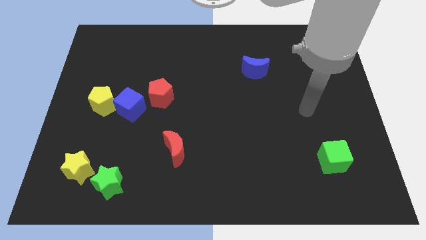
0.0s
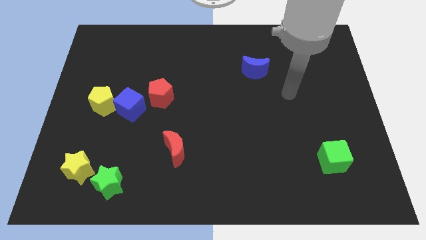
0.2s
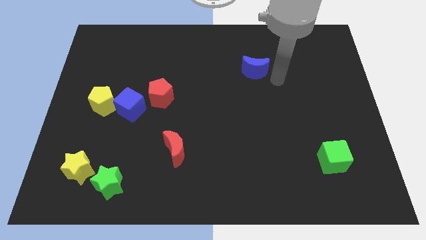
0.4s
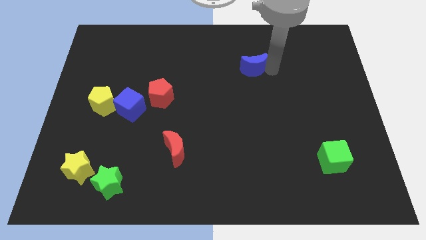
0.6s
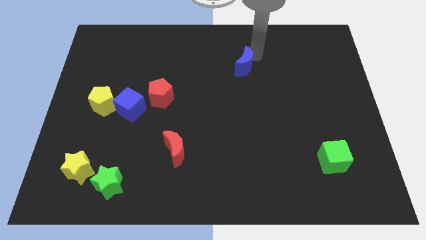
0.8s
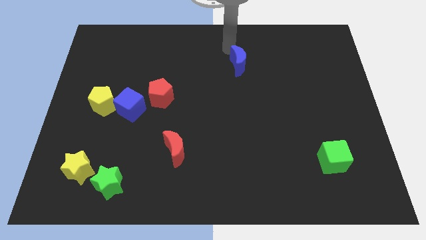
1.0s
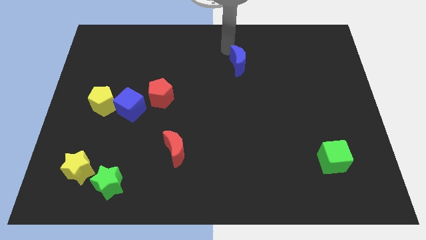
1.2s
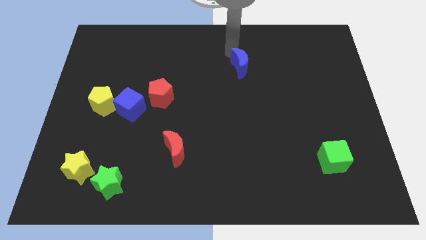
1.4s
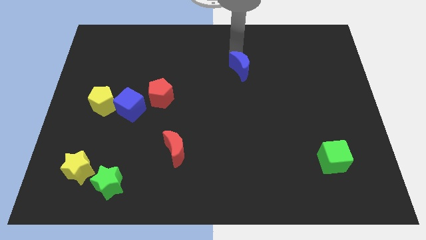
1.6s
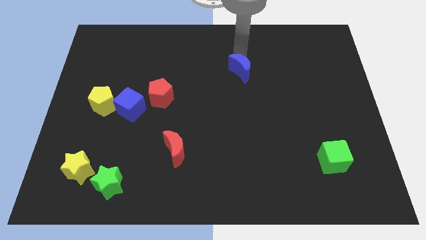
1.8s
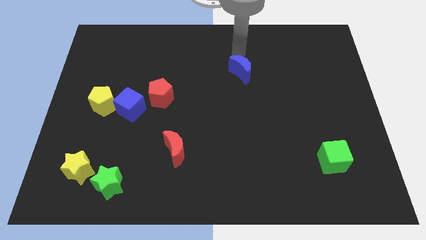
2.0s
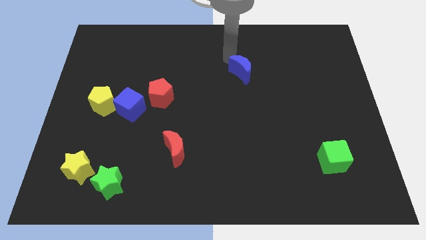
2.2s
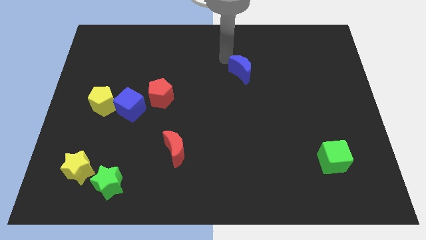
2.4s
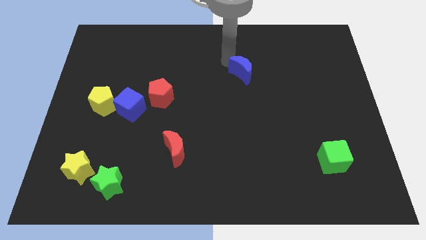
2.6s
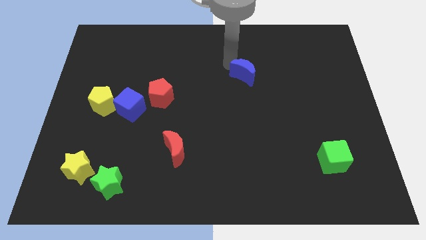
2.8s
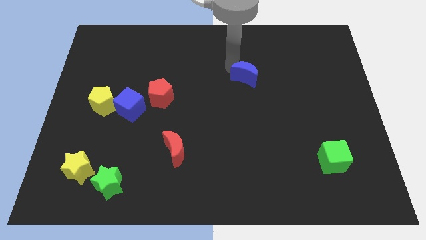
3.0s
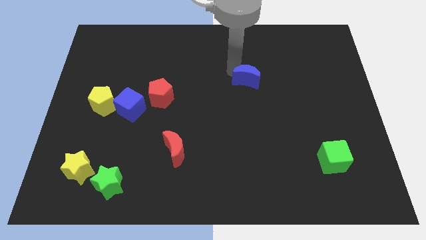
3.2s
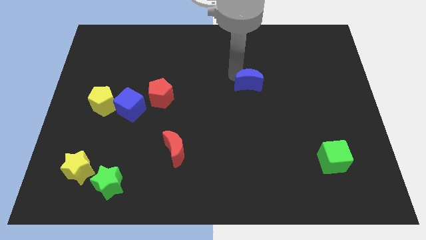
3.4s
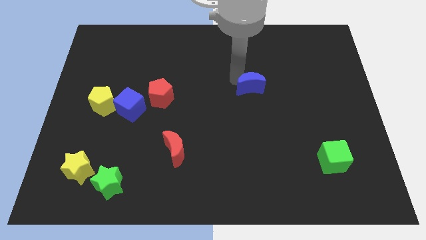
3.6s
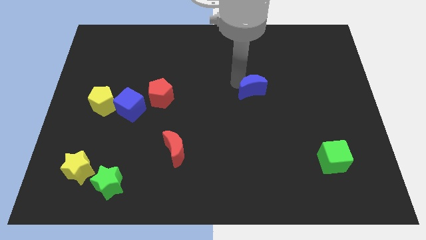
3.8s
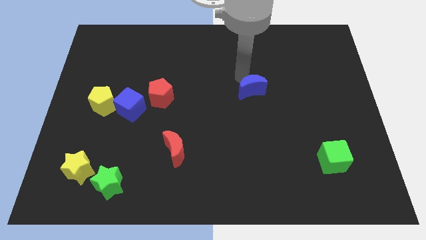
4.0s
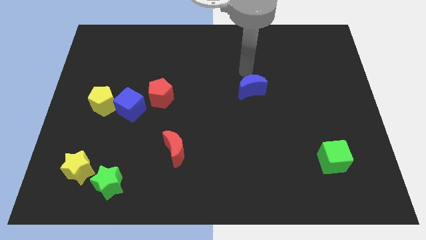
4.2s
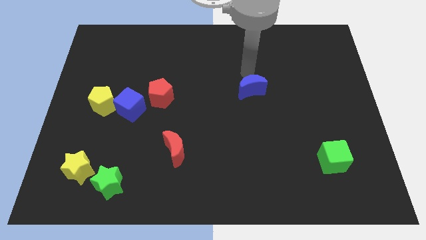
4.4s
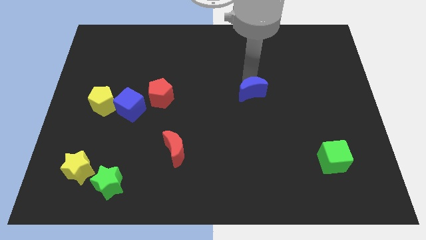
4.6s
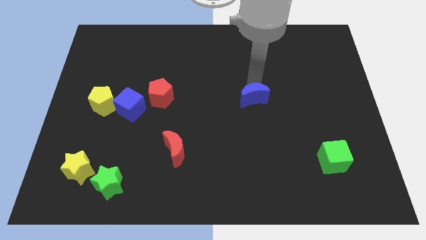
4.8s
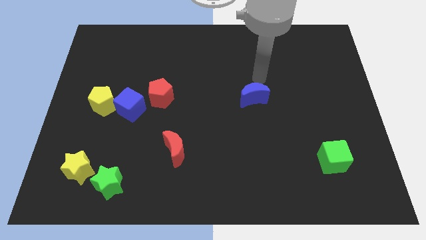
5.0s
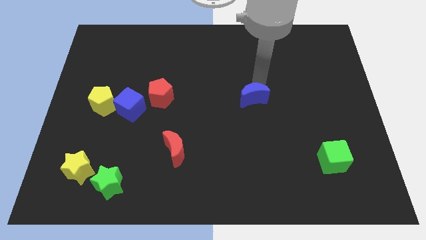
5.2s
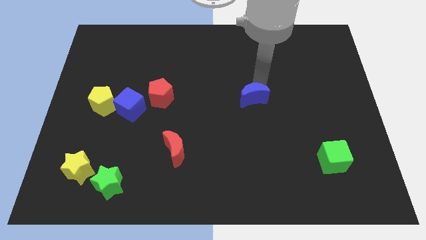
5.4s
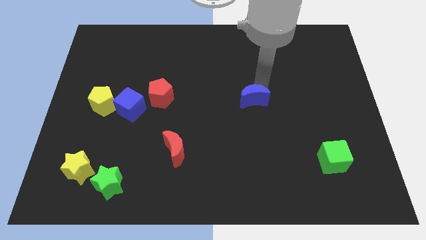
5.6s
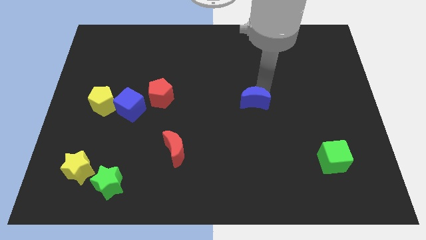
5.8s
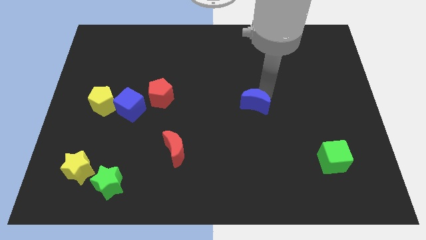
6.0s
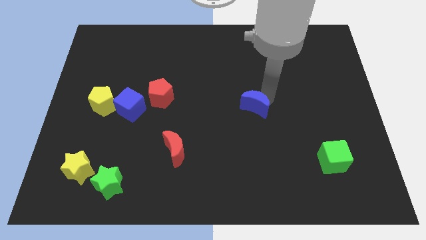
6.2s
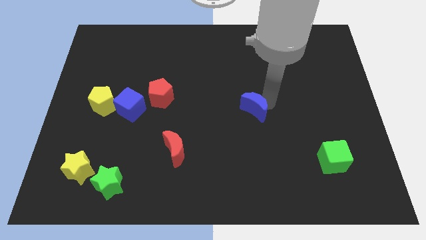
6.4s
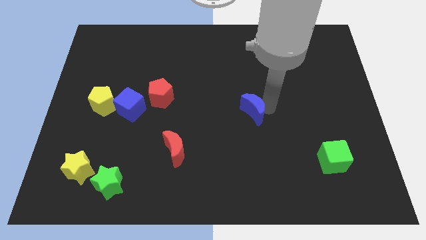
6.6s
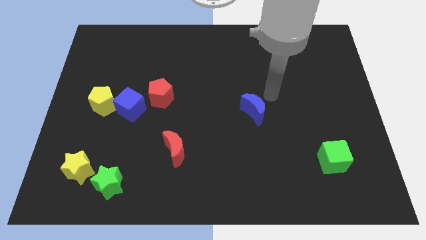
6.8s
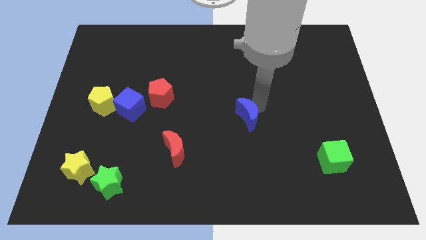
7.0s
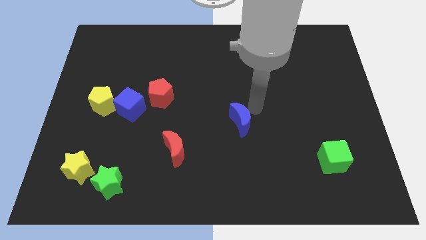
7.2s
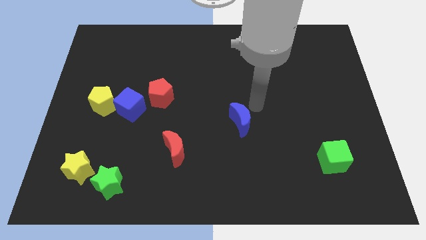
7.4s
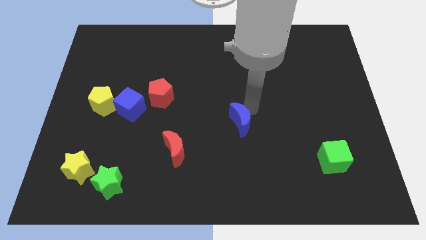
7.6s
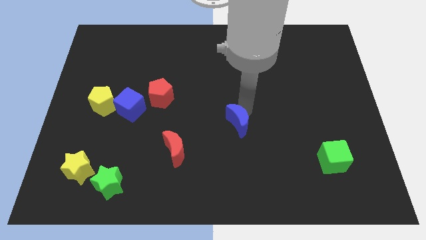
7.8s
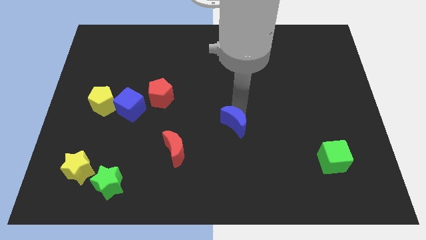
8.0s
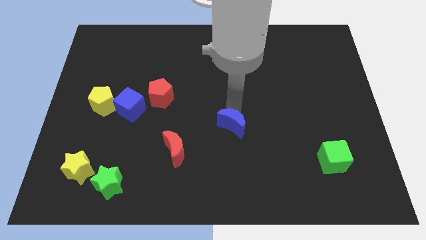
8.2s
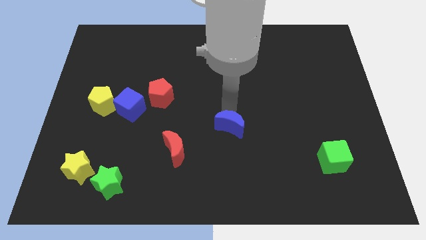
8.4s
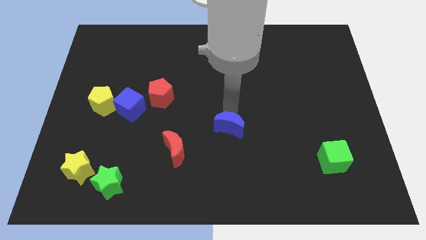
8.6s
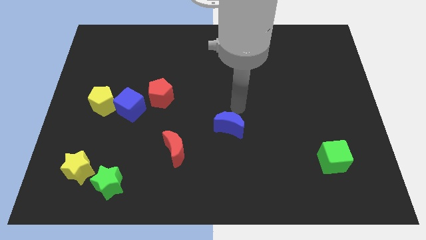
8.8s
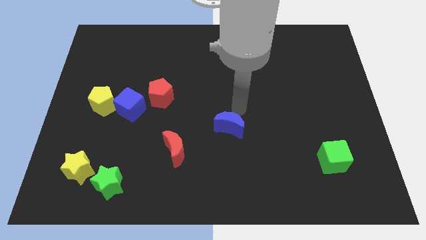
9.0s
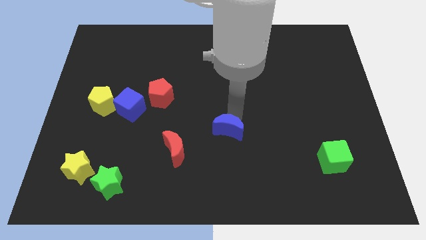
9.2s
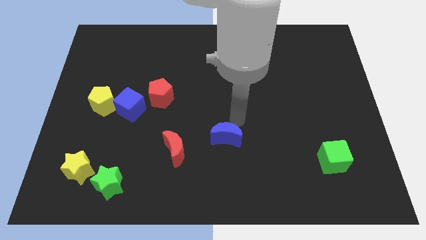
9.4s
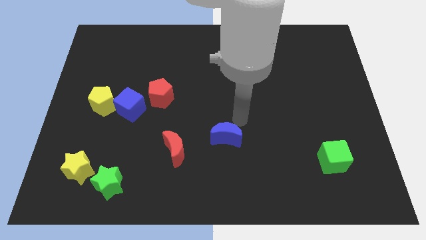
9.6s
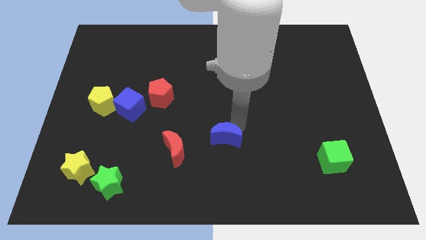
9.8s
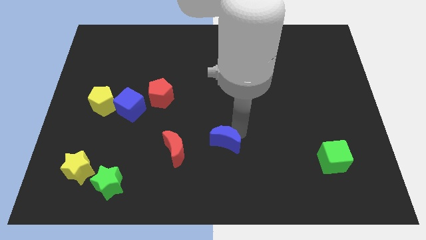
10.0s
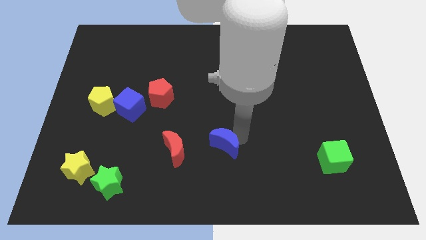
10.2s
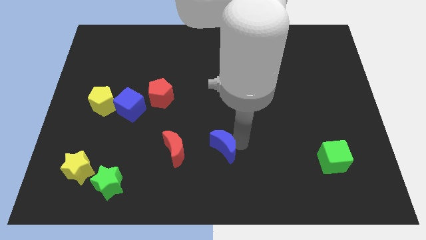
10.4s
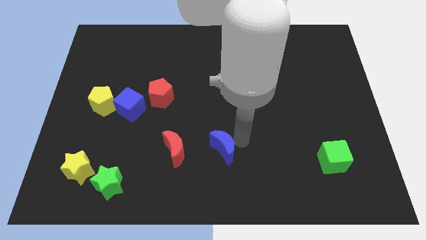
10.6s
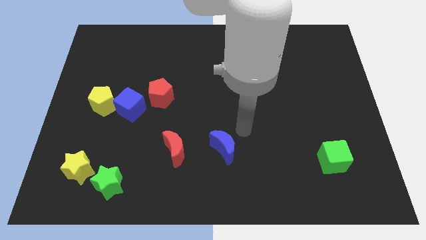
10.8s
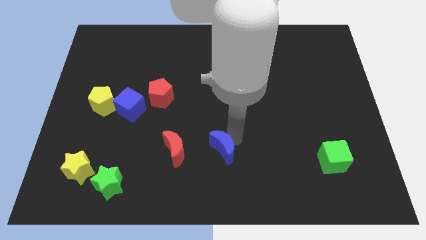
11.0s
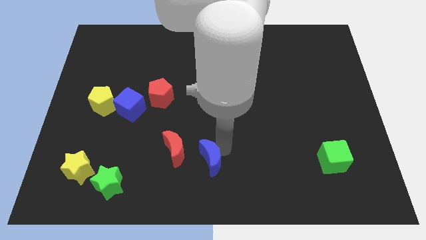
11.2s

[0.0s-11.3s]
put the blue moon to the bottom right of the red moon

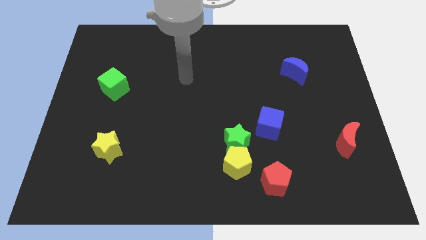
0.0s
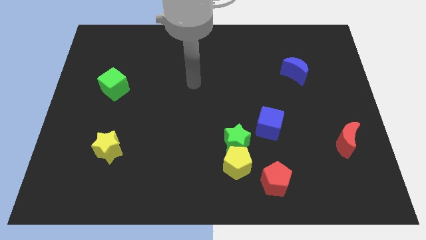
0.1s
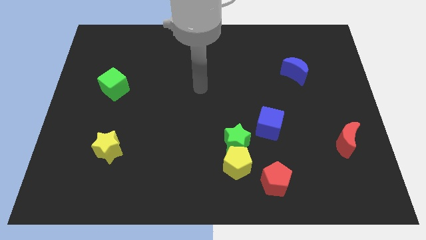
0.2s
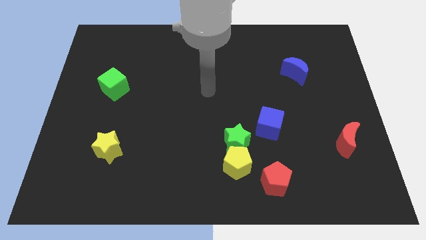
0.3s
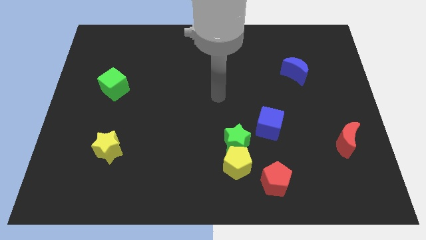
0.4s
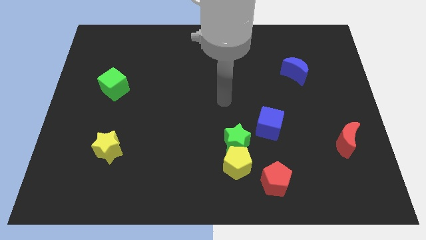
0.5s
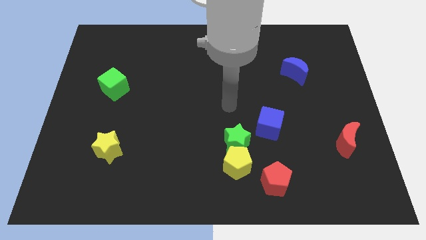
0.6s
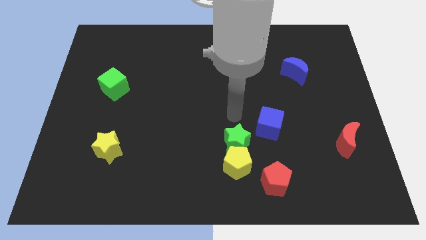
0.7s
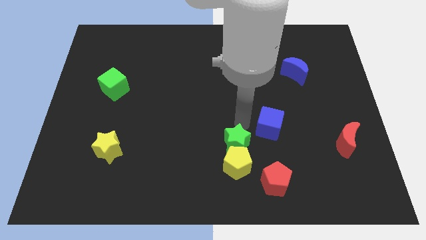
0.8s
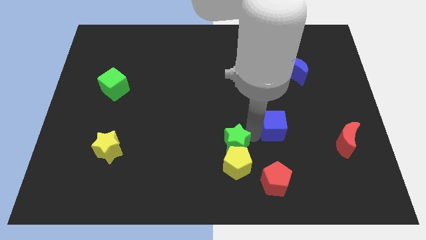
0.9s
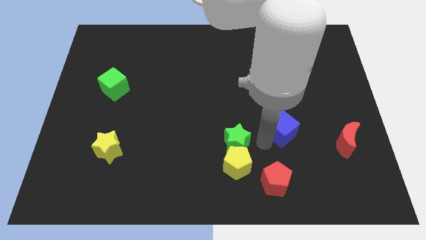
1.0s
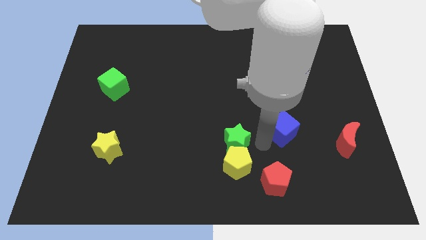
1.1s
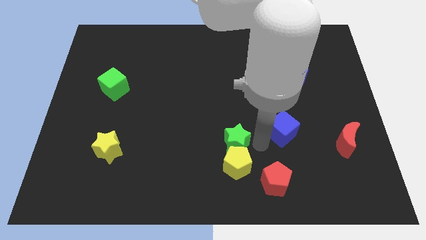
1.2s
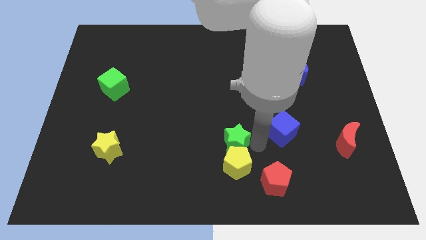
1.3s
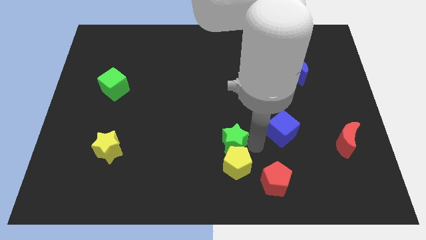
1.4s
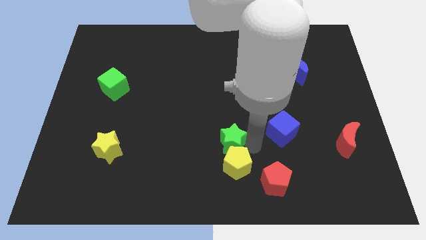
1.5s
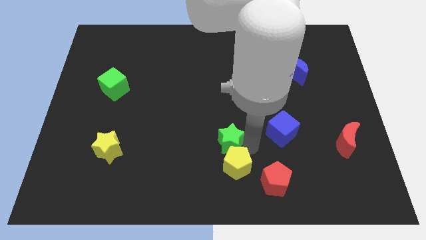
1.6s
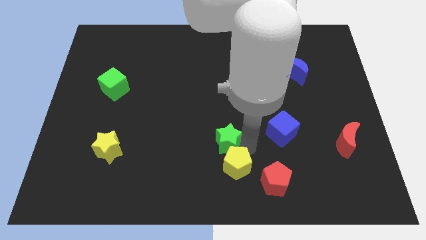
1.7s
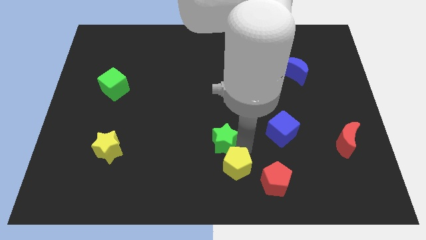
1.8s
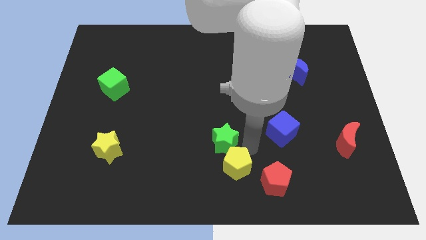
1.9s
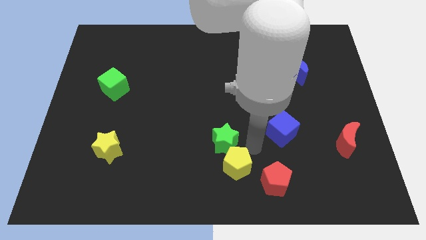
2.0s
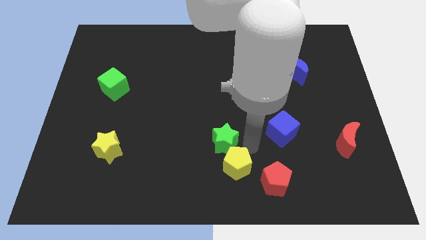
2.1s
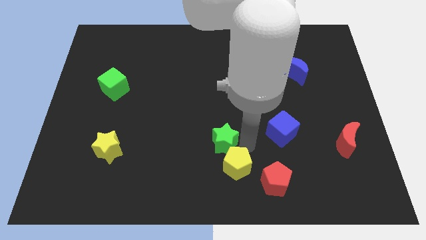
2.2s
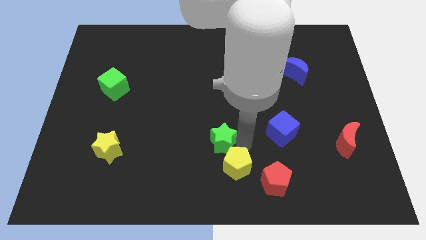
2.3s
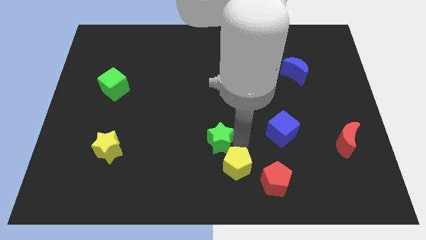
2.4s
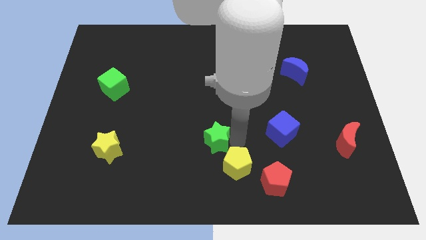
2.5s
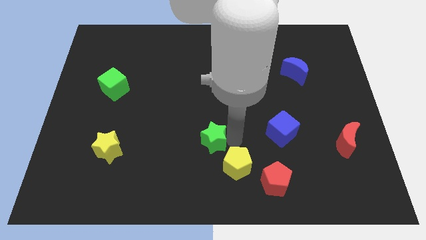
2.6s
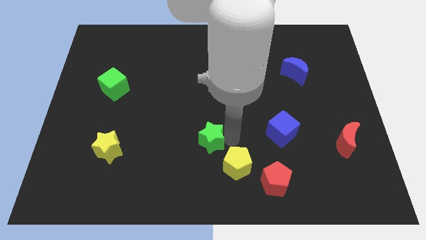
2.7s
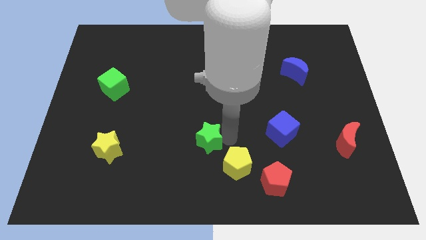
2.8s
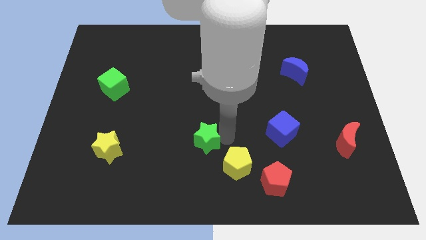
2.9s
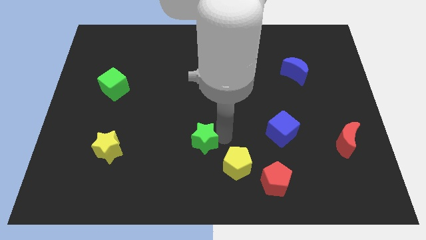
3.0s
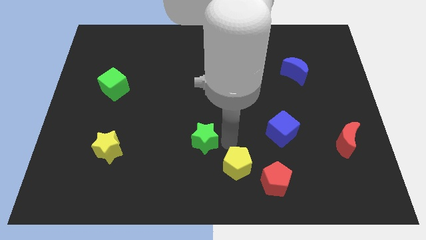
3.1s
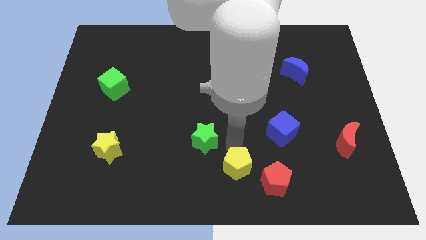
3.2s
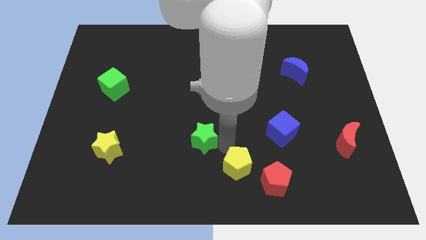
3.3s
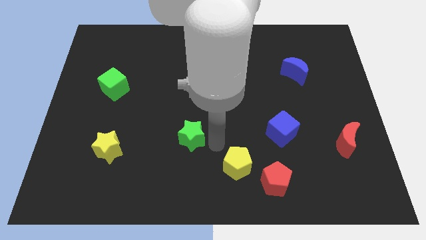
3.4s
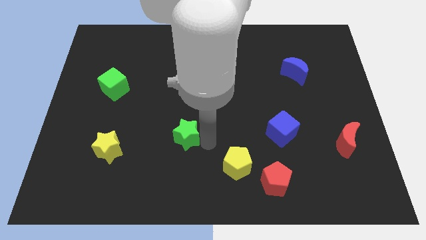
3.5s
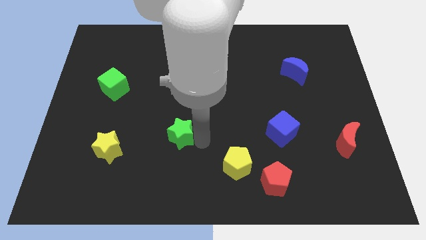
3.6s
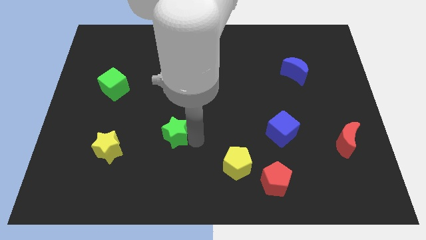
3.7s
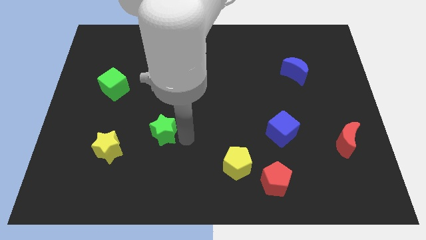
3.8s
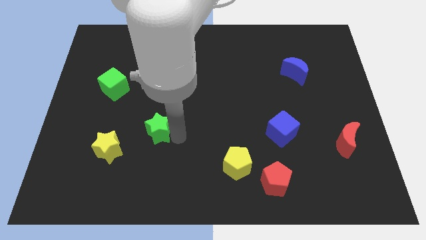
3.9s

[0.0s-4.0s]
slide the green star diagonally up and to the right of the yellow star
